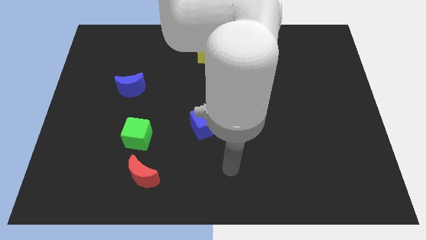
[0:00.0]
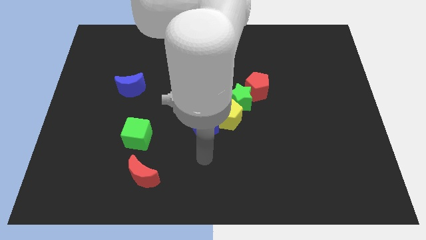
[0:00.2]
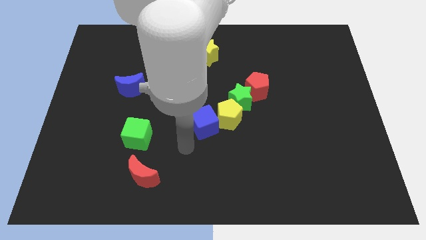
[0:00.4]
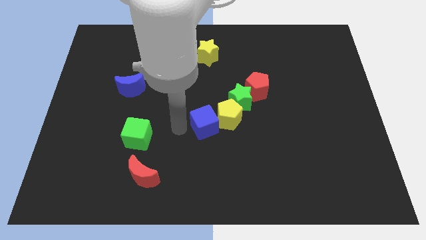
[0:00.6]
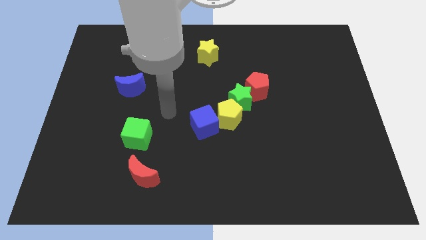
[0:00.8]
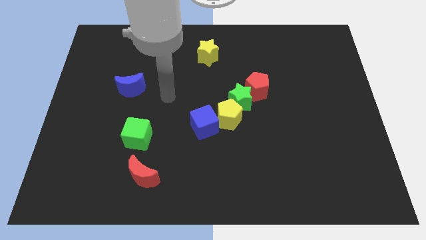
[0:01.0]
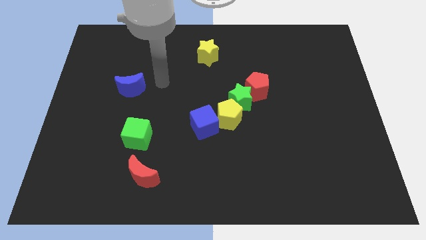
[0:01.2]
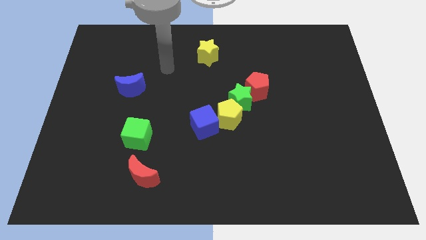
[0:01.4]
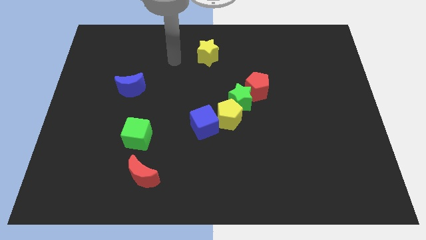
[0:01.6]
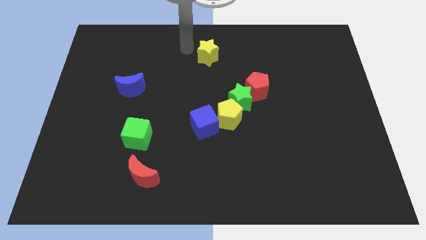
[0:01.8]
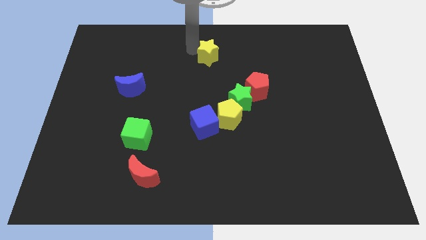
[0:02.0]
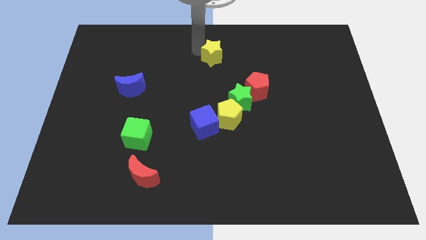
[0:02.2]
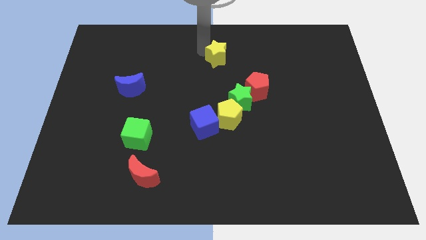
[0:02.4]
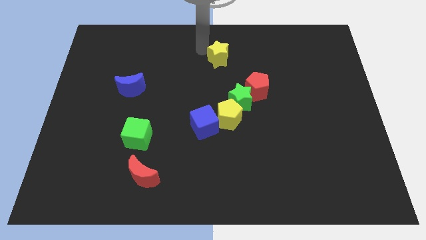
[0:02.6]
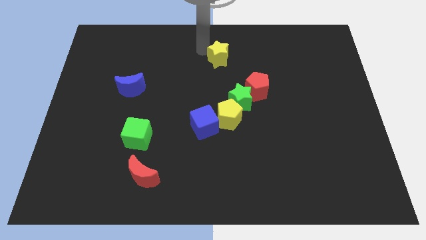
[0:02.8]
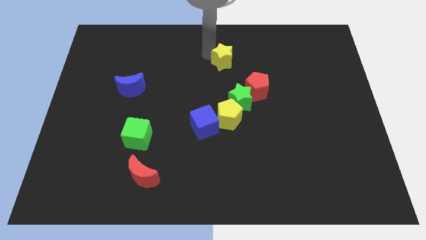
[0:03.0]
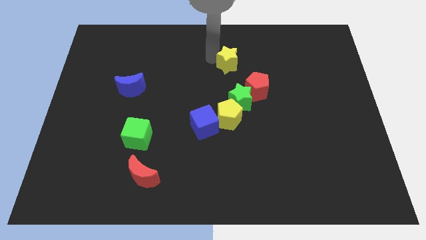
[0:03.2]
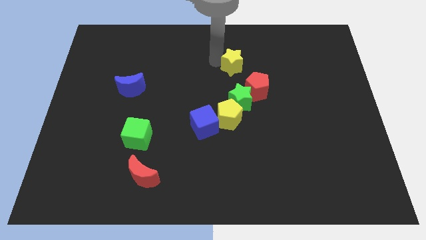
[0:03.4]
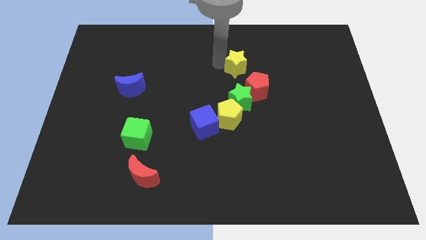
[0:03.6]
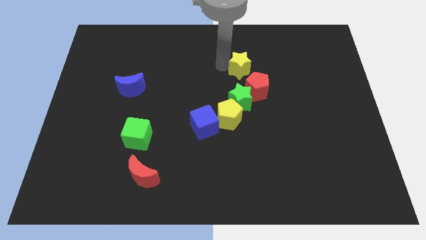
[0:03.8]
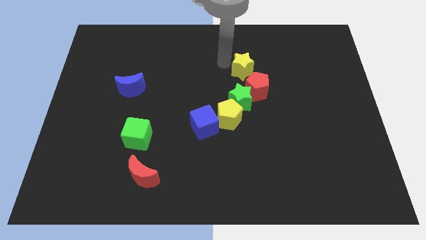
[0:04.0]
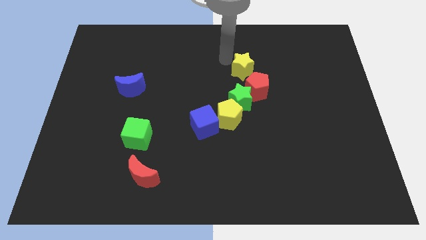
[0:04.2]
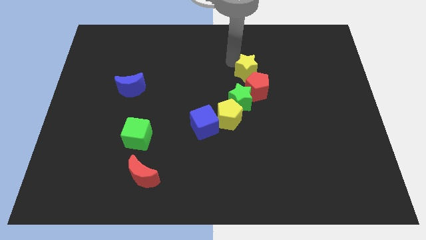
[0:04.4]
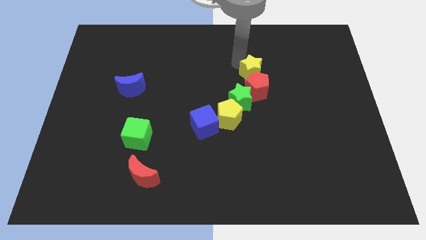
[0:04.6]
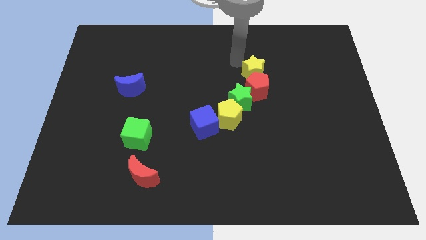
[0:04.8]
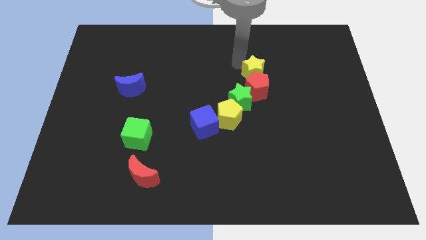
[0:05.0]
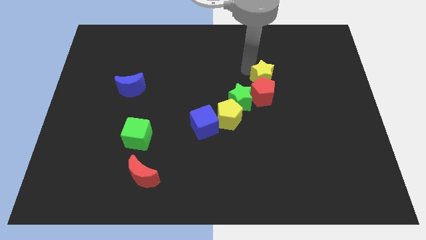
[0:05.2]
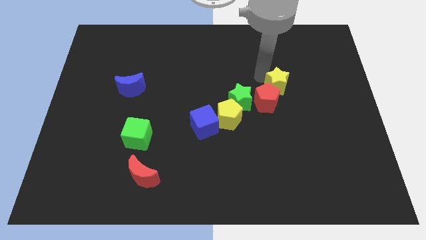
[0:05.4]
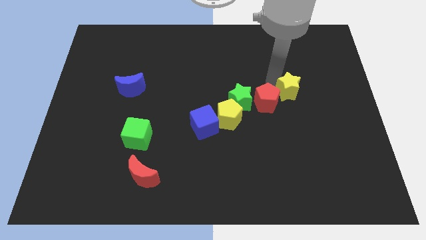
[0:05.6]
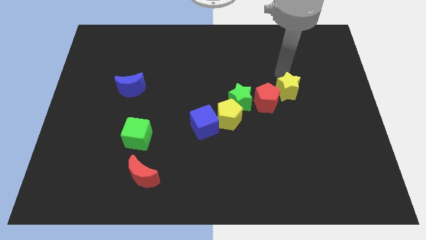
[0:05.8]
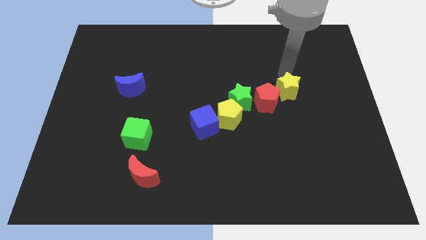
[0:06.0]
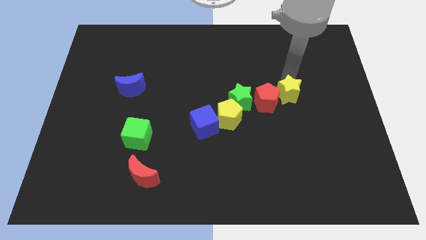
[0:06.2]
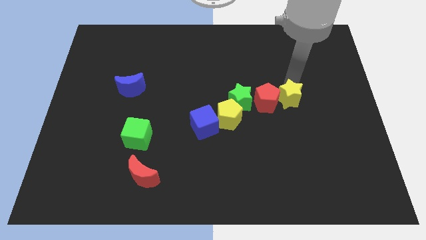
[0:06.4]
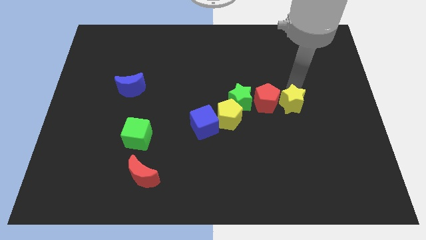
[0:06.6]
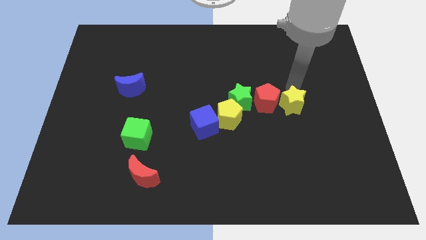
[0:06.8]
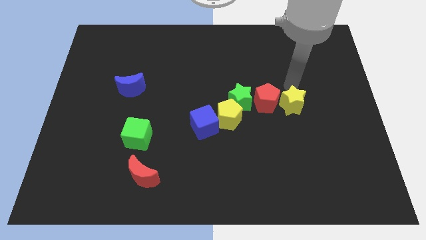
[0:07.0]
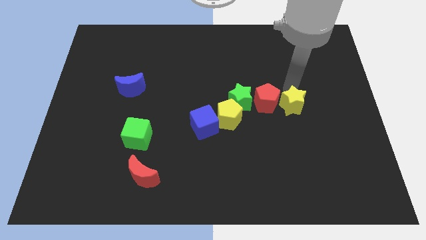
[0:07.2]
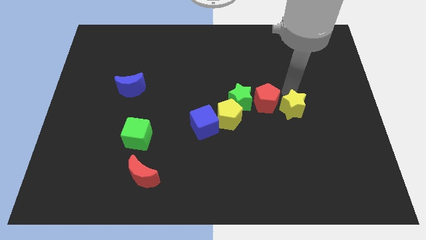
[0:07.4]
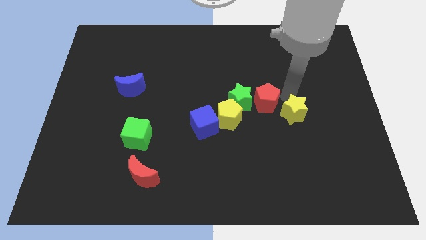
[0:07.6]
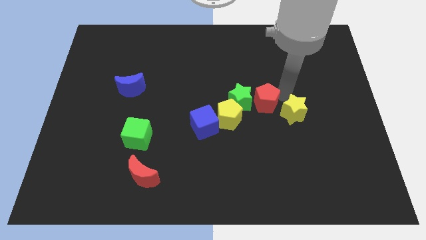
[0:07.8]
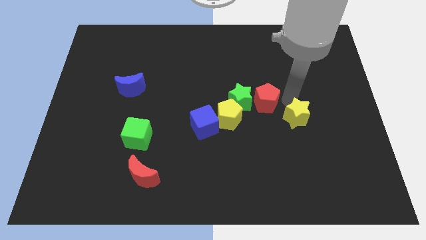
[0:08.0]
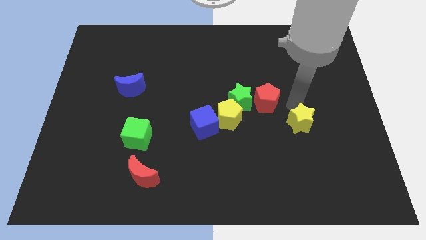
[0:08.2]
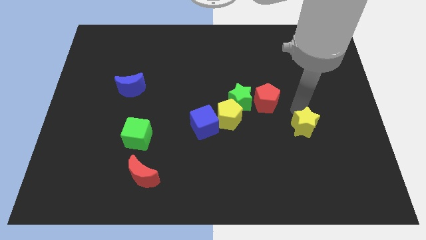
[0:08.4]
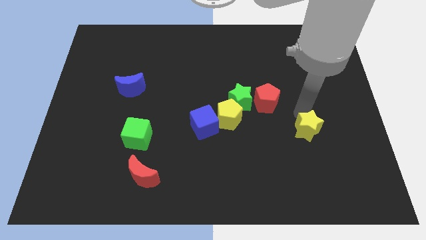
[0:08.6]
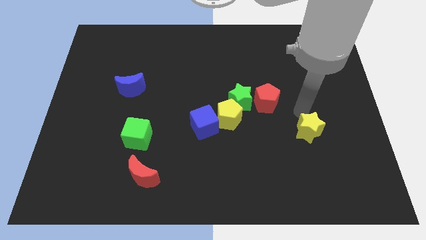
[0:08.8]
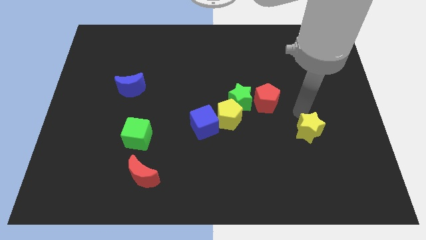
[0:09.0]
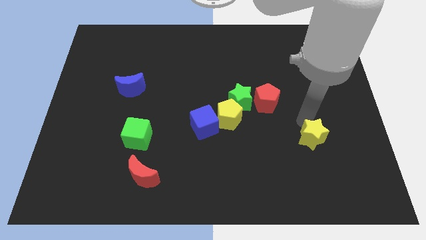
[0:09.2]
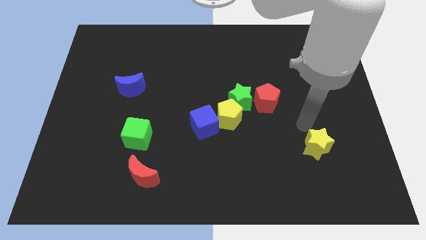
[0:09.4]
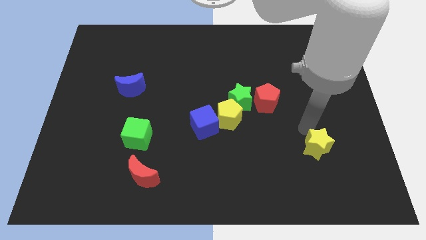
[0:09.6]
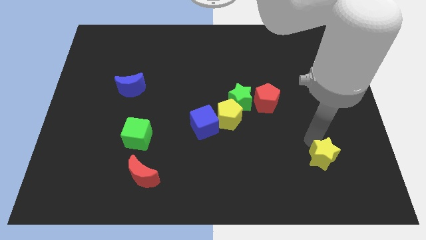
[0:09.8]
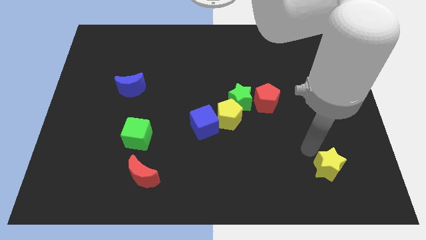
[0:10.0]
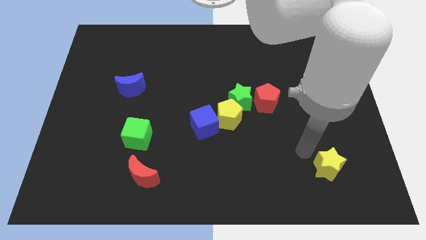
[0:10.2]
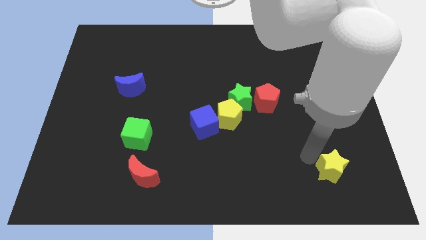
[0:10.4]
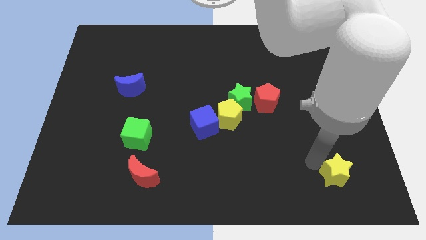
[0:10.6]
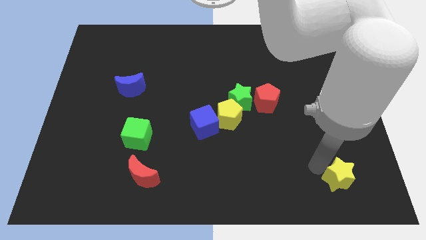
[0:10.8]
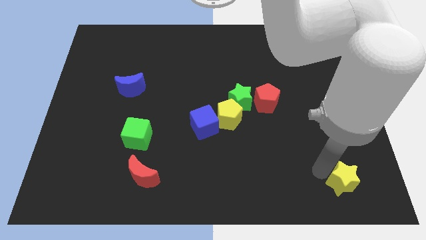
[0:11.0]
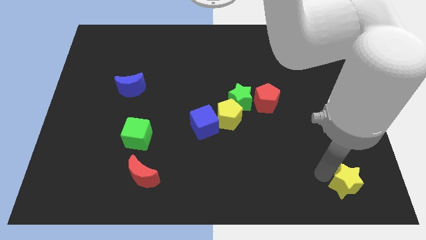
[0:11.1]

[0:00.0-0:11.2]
push the yellow star to the bottom right

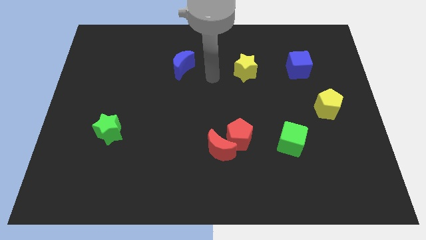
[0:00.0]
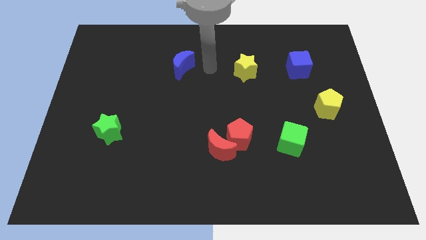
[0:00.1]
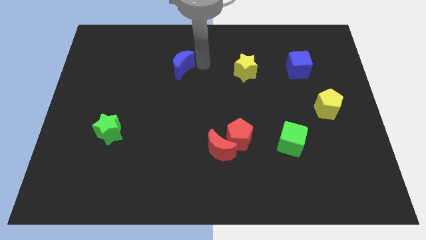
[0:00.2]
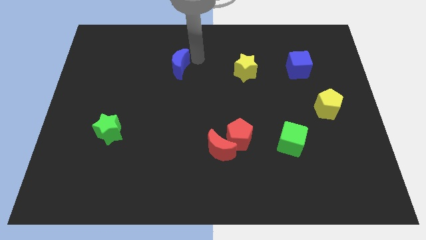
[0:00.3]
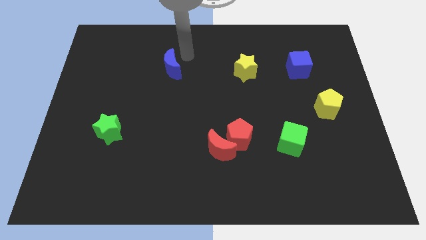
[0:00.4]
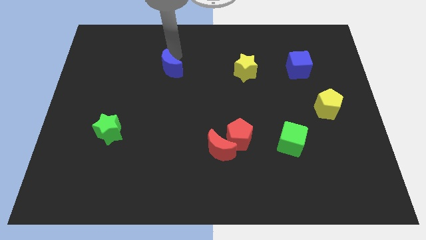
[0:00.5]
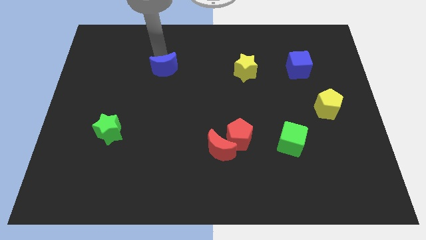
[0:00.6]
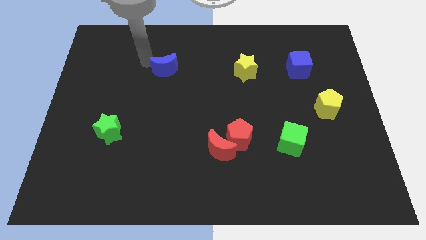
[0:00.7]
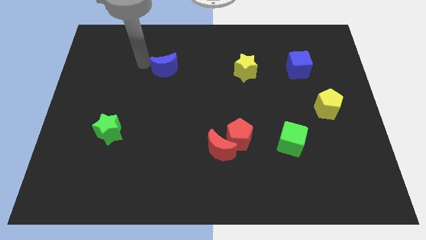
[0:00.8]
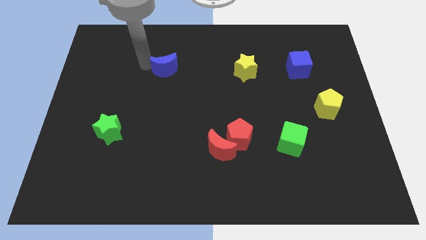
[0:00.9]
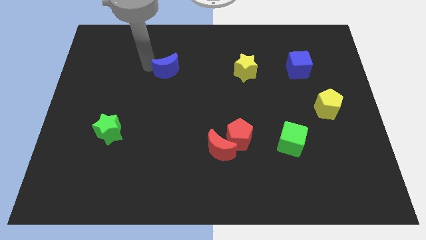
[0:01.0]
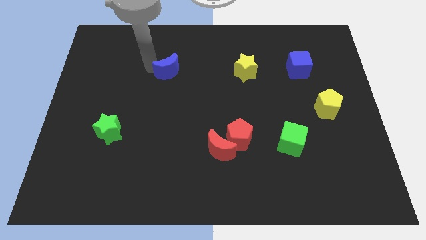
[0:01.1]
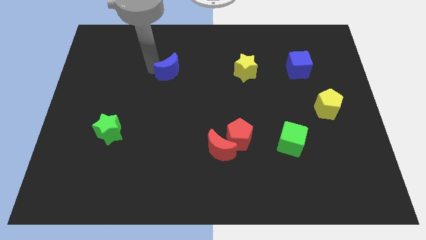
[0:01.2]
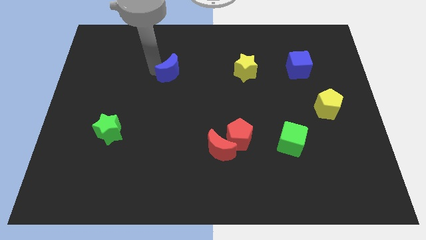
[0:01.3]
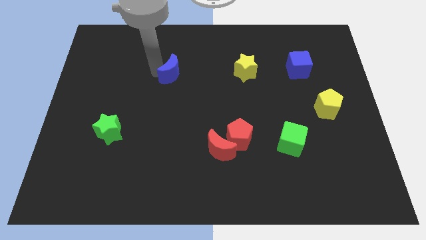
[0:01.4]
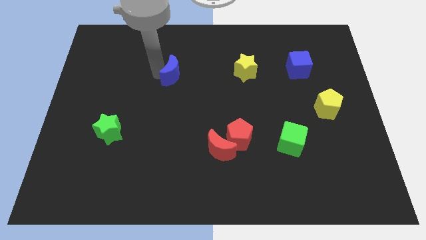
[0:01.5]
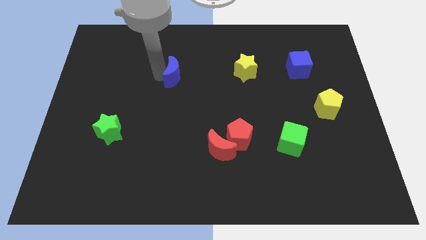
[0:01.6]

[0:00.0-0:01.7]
slide the blue moon to the middle
